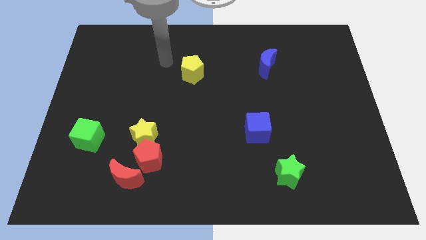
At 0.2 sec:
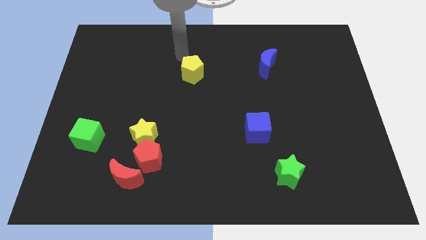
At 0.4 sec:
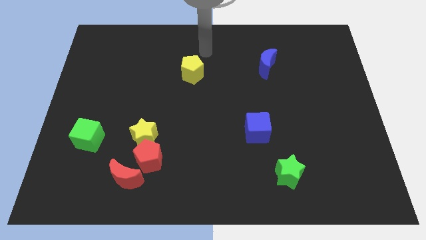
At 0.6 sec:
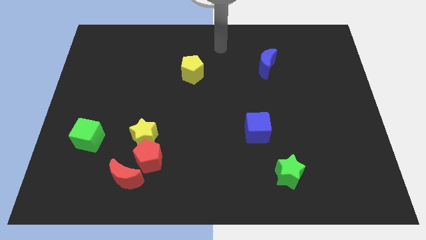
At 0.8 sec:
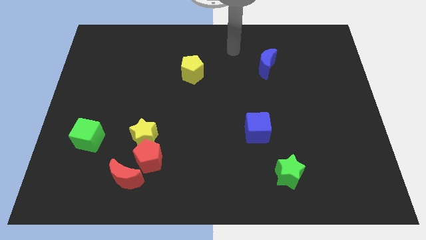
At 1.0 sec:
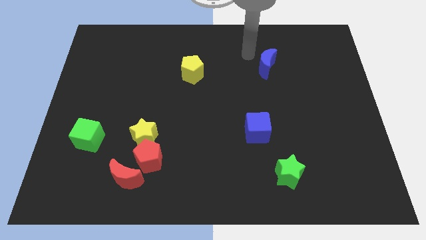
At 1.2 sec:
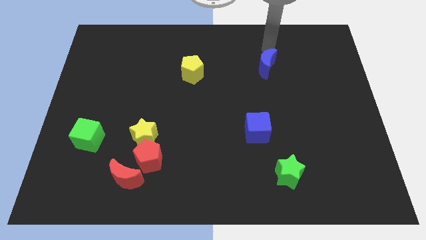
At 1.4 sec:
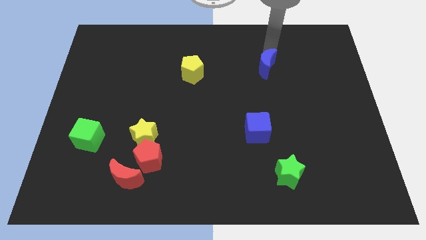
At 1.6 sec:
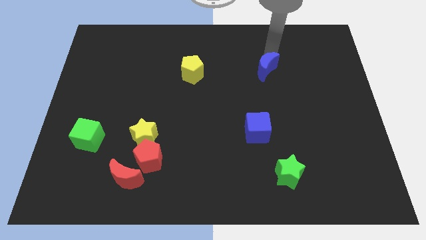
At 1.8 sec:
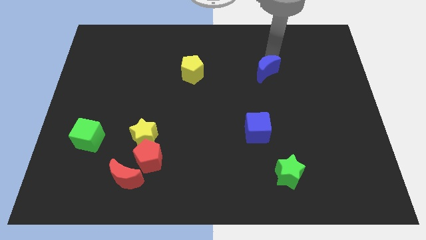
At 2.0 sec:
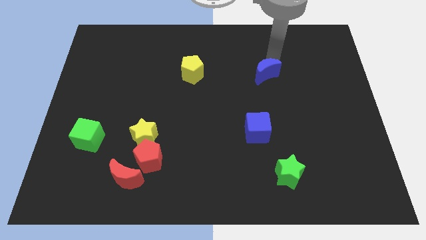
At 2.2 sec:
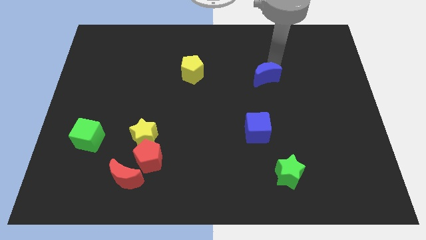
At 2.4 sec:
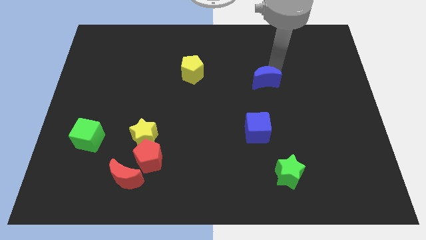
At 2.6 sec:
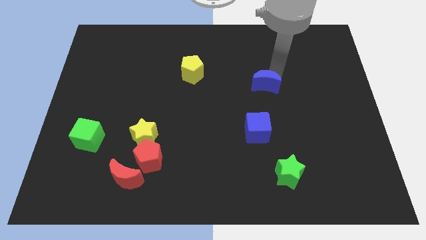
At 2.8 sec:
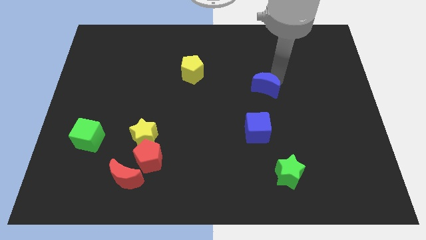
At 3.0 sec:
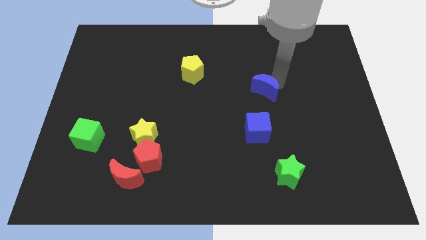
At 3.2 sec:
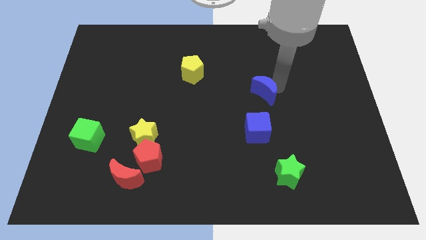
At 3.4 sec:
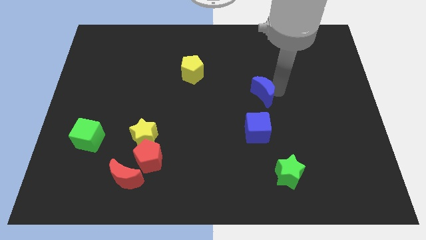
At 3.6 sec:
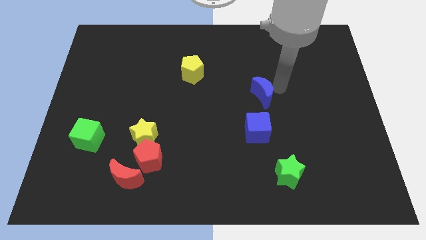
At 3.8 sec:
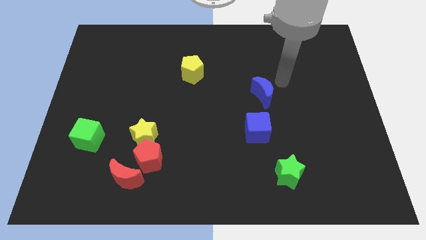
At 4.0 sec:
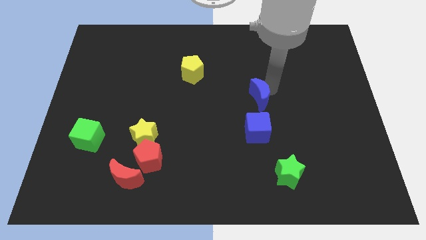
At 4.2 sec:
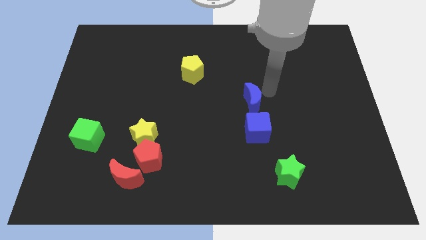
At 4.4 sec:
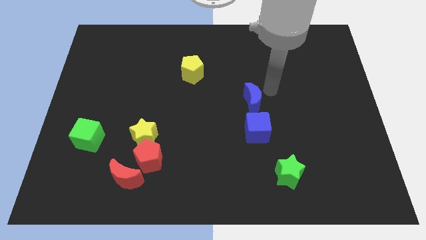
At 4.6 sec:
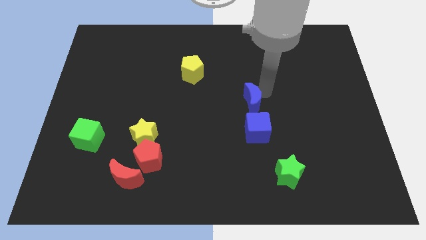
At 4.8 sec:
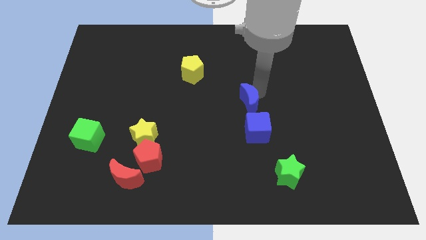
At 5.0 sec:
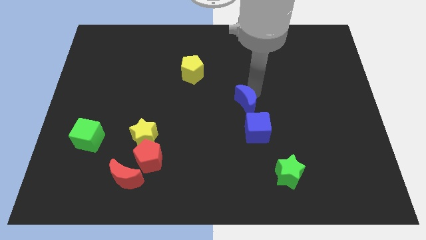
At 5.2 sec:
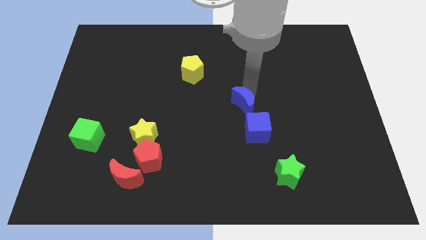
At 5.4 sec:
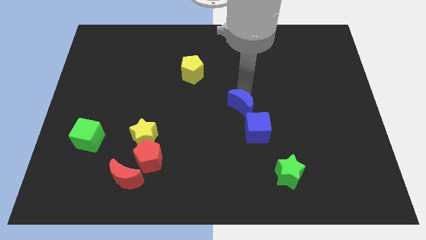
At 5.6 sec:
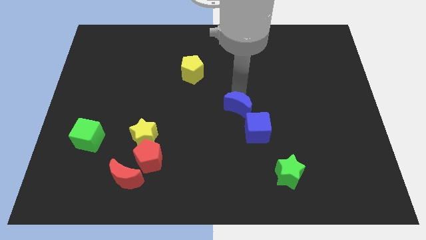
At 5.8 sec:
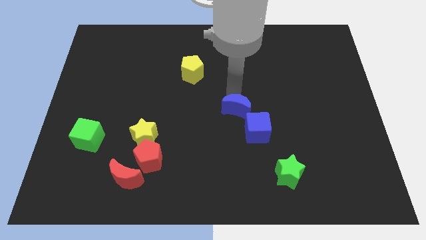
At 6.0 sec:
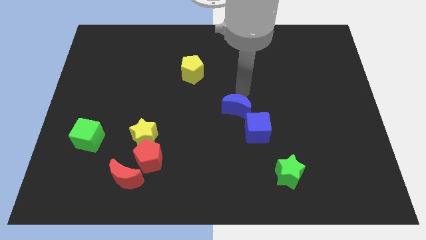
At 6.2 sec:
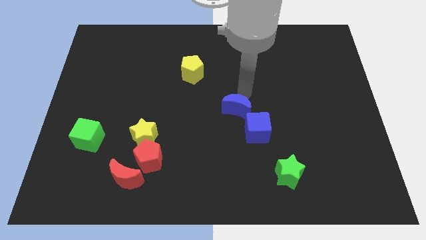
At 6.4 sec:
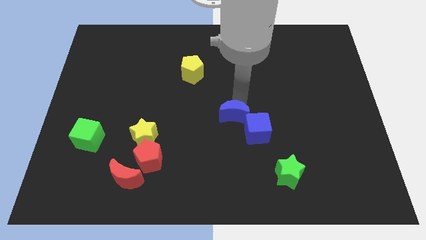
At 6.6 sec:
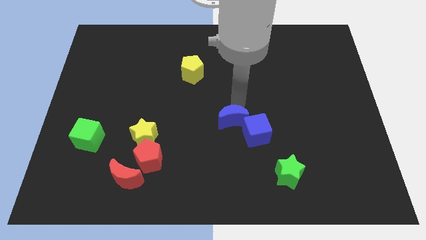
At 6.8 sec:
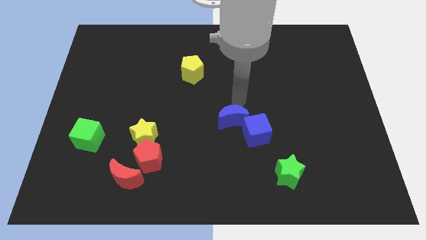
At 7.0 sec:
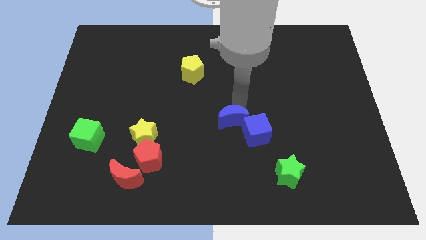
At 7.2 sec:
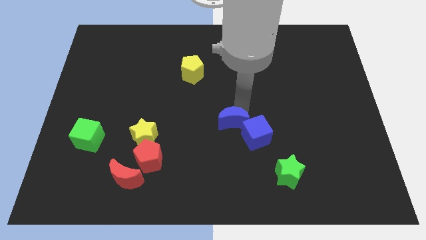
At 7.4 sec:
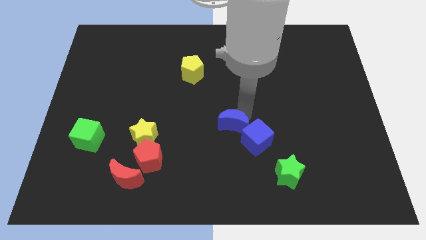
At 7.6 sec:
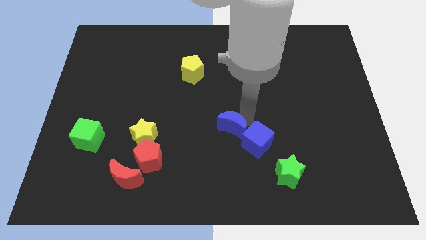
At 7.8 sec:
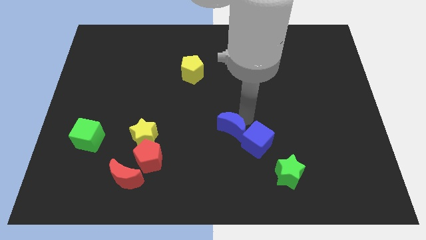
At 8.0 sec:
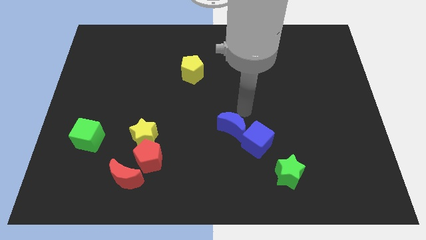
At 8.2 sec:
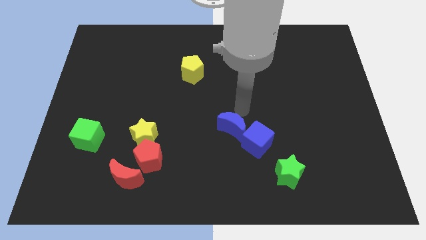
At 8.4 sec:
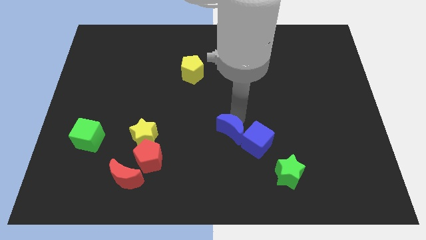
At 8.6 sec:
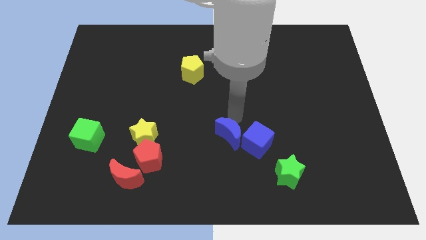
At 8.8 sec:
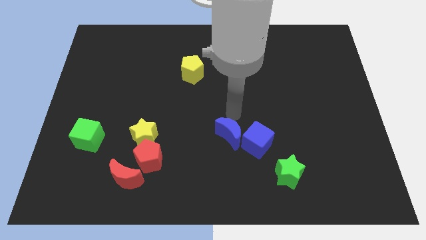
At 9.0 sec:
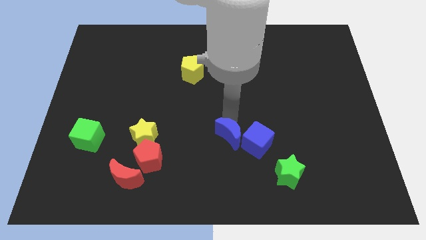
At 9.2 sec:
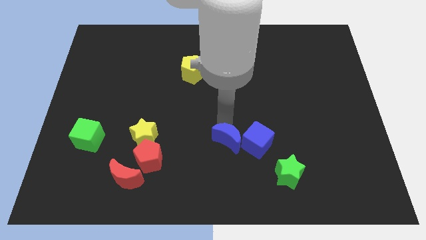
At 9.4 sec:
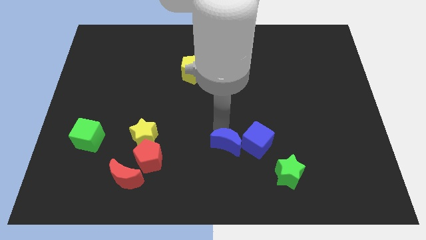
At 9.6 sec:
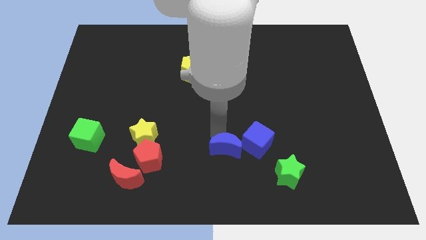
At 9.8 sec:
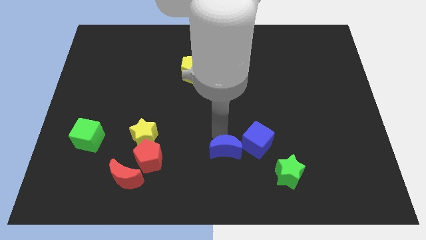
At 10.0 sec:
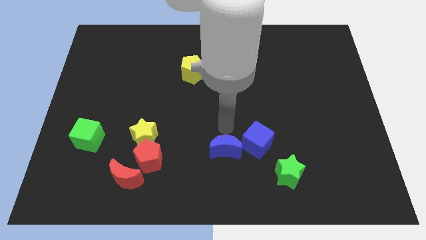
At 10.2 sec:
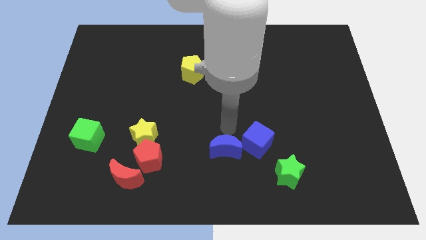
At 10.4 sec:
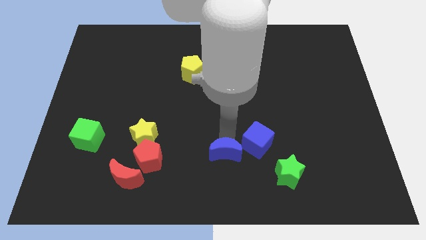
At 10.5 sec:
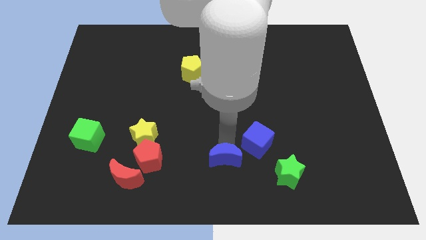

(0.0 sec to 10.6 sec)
move the blue moon to the bottom side

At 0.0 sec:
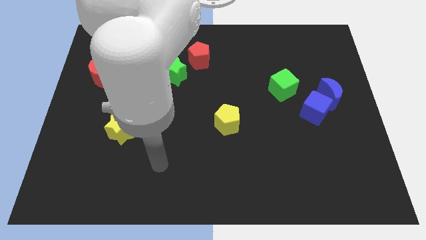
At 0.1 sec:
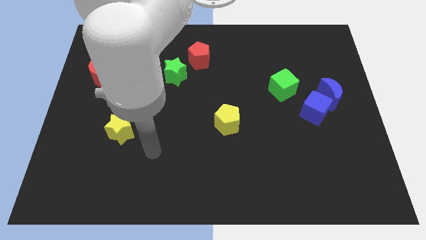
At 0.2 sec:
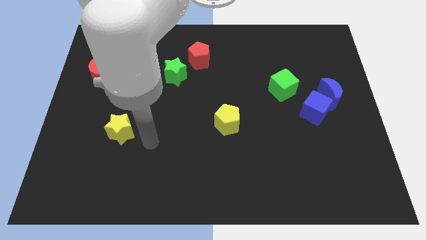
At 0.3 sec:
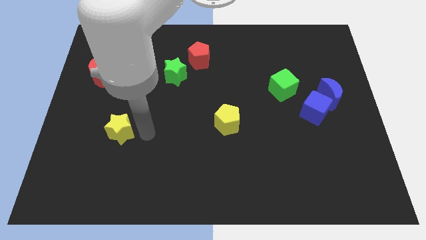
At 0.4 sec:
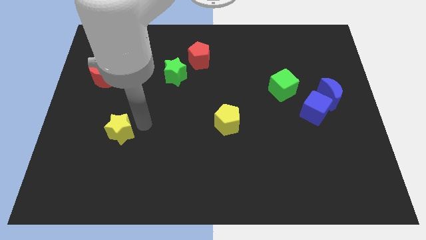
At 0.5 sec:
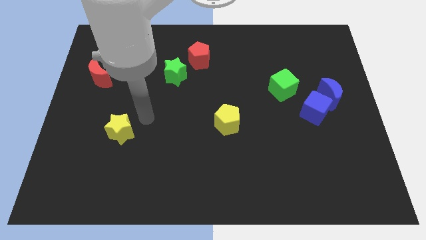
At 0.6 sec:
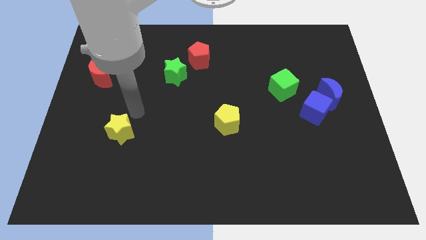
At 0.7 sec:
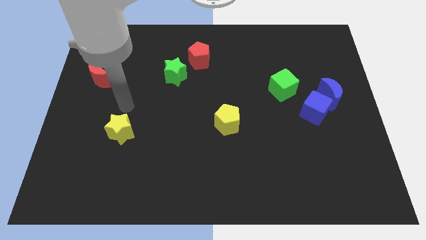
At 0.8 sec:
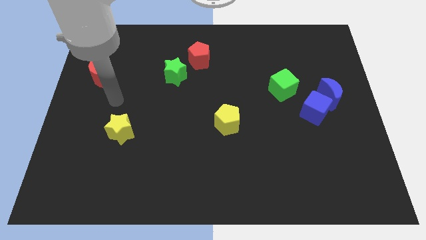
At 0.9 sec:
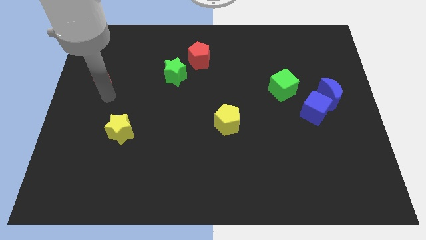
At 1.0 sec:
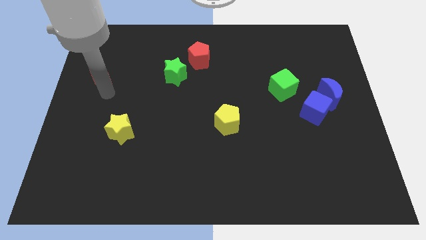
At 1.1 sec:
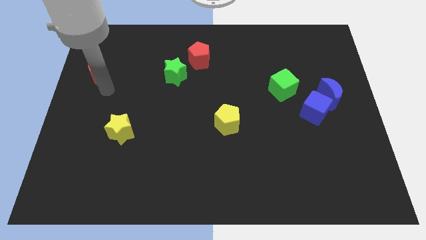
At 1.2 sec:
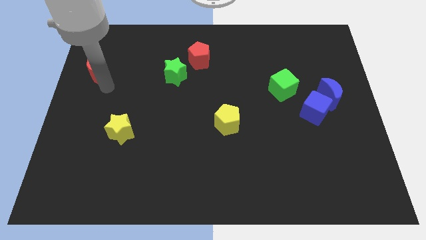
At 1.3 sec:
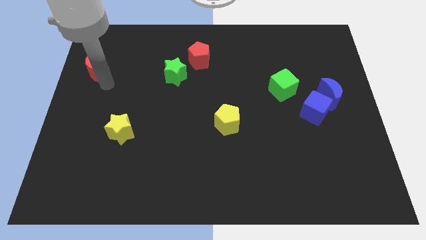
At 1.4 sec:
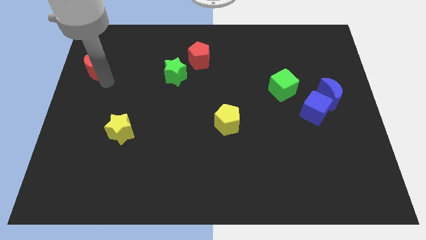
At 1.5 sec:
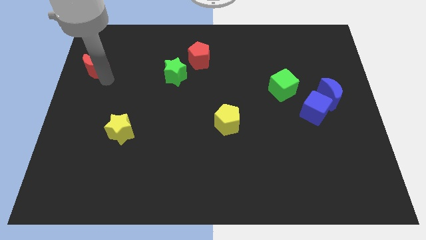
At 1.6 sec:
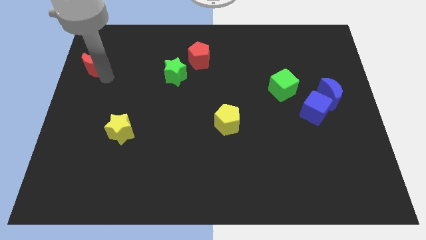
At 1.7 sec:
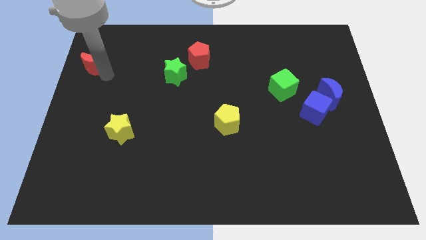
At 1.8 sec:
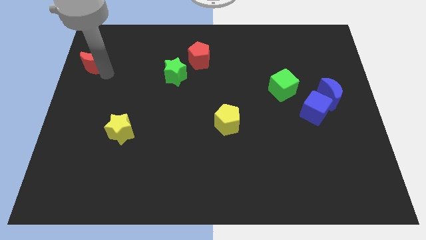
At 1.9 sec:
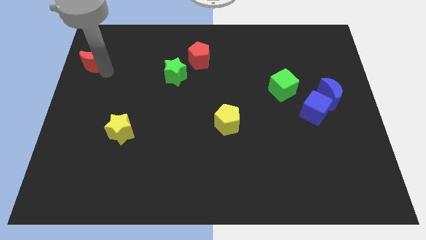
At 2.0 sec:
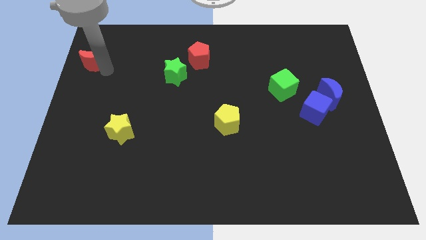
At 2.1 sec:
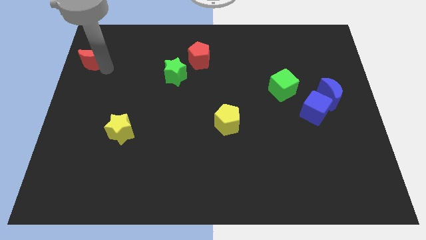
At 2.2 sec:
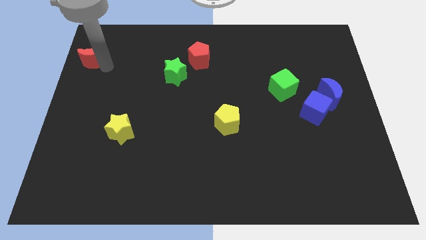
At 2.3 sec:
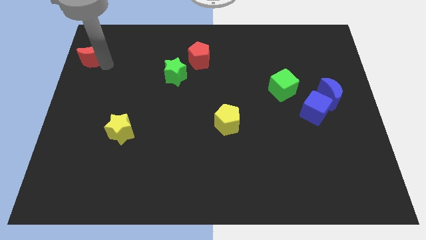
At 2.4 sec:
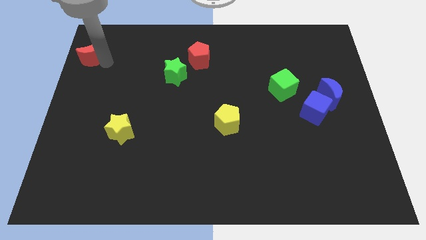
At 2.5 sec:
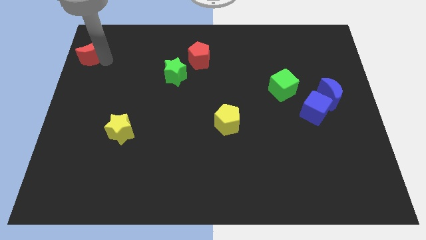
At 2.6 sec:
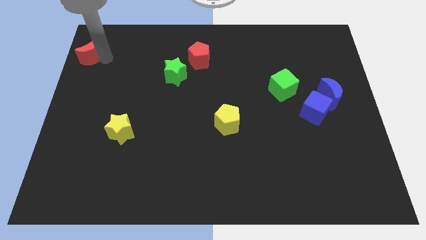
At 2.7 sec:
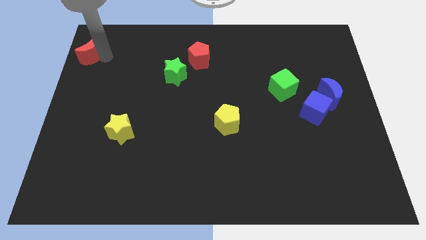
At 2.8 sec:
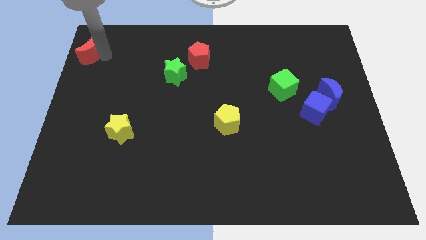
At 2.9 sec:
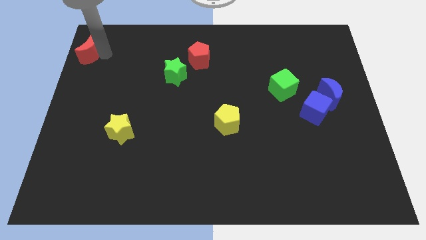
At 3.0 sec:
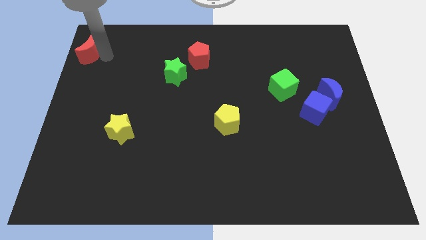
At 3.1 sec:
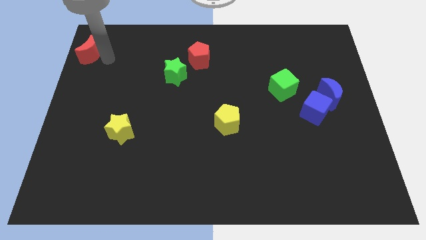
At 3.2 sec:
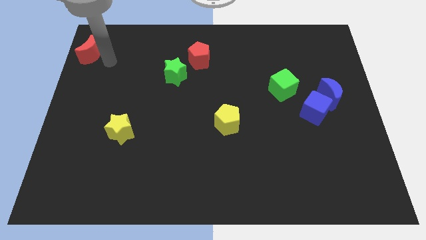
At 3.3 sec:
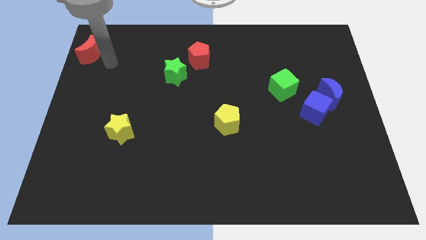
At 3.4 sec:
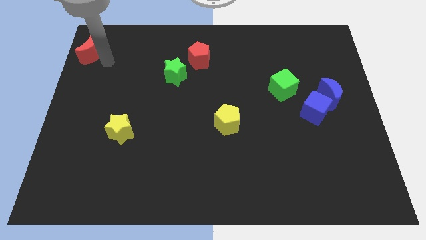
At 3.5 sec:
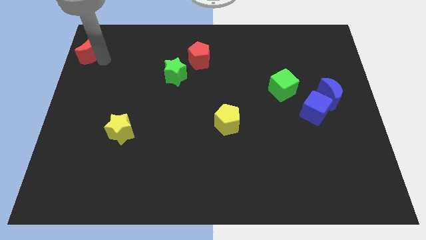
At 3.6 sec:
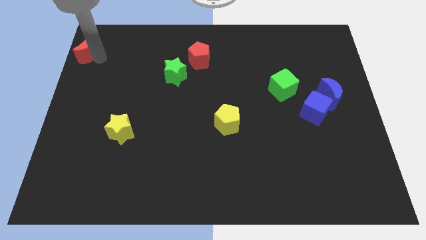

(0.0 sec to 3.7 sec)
move the red moon to the top left
